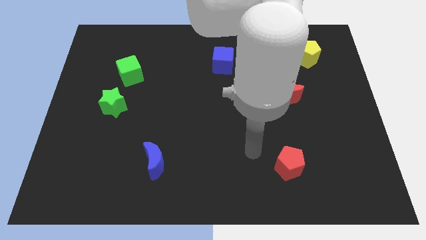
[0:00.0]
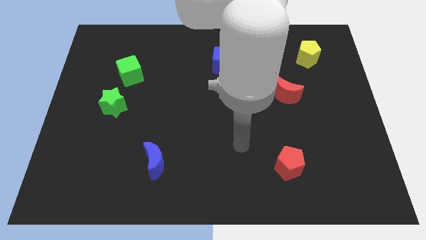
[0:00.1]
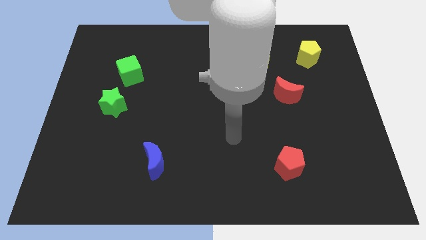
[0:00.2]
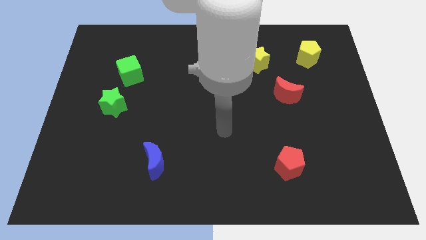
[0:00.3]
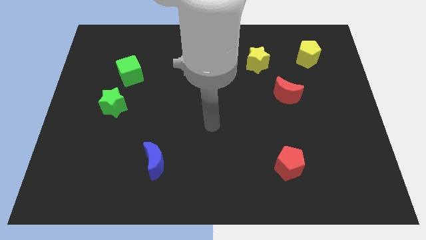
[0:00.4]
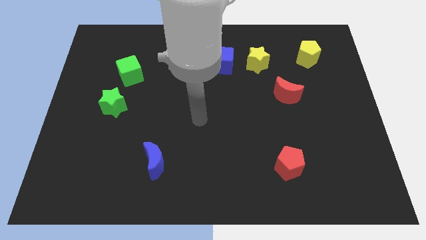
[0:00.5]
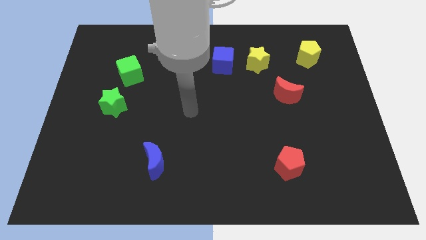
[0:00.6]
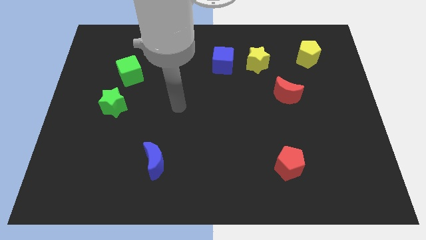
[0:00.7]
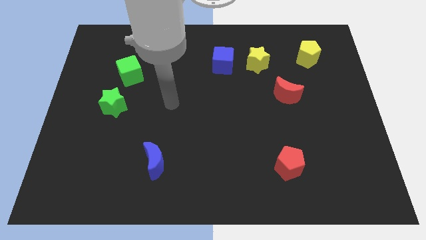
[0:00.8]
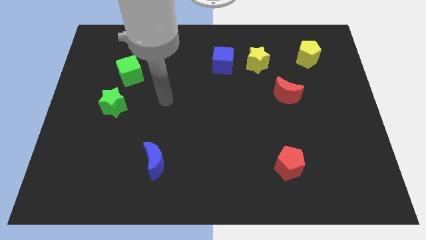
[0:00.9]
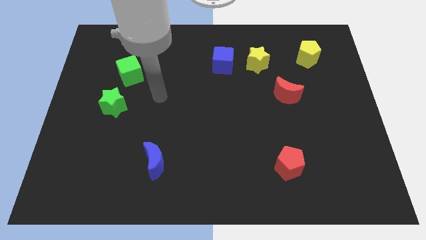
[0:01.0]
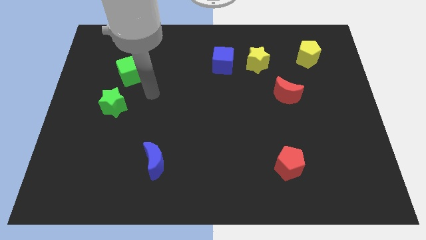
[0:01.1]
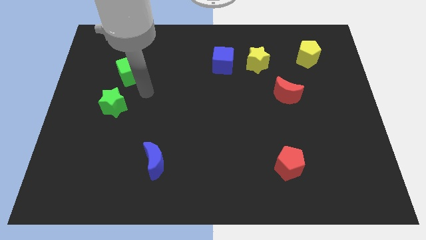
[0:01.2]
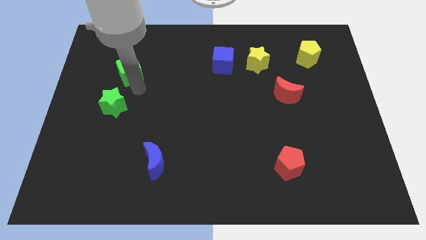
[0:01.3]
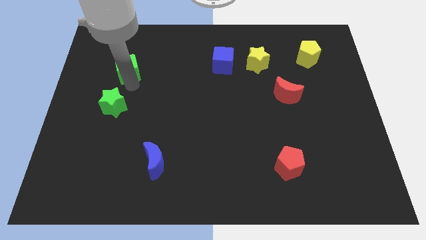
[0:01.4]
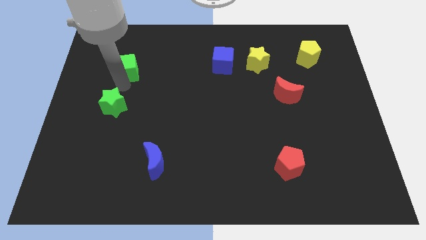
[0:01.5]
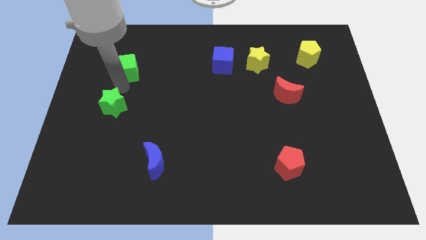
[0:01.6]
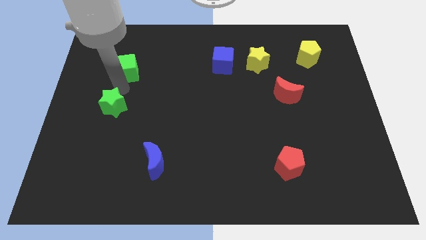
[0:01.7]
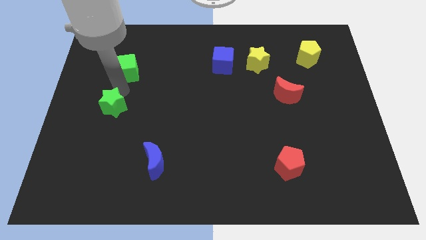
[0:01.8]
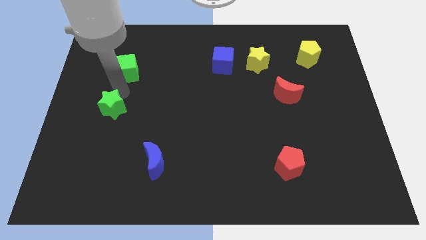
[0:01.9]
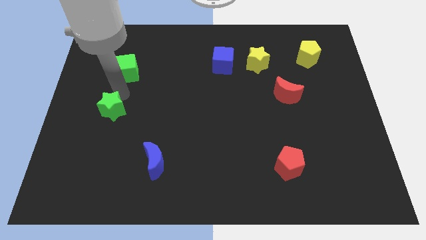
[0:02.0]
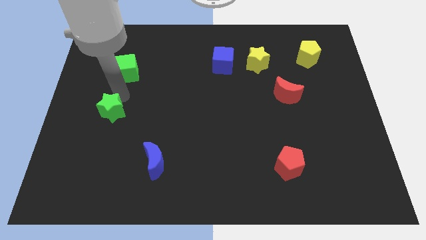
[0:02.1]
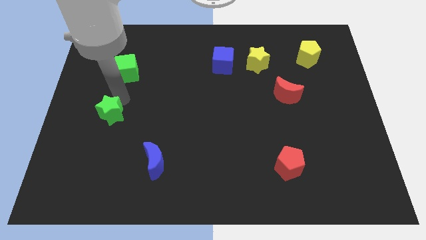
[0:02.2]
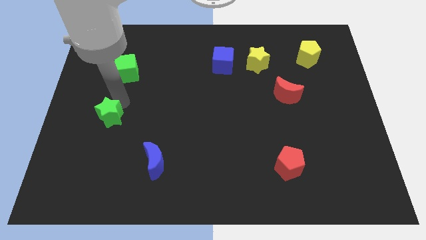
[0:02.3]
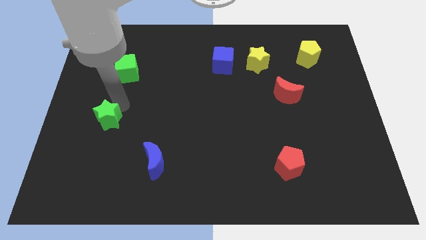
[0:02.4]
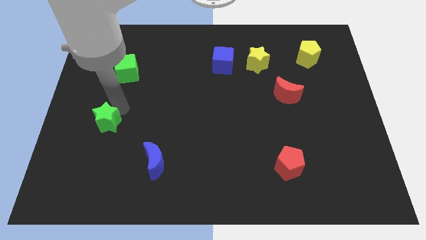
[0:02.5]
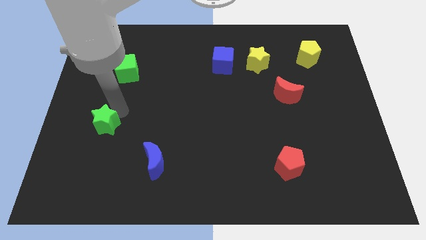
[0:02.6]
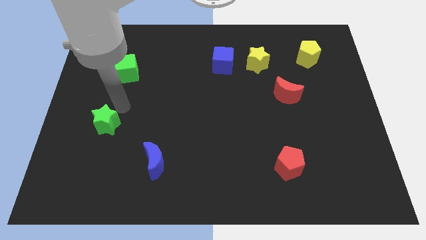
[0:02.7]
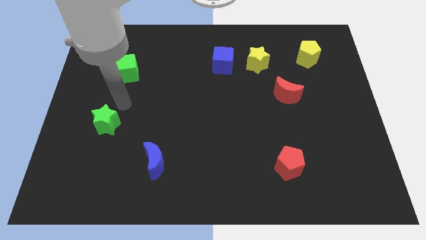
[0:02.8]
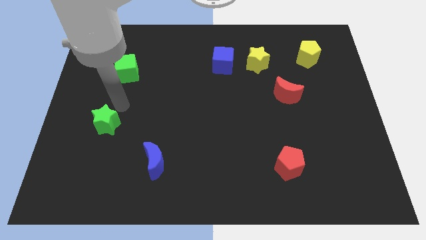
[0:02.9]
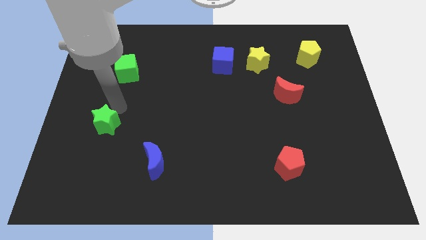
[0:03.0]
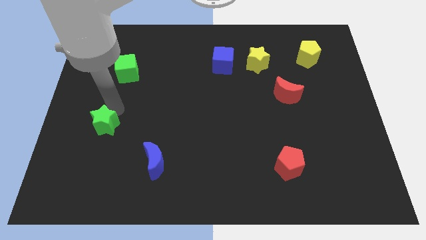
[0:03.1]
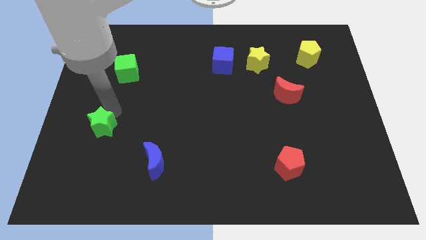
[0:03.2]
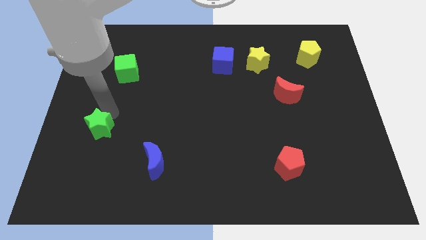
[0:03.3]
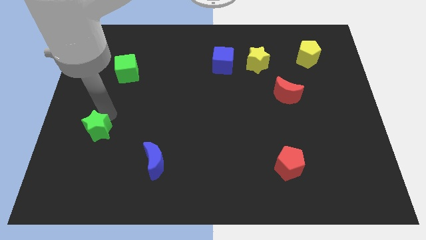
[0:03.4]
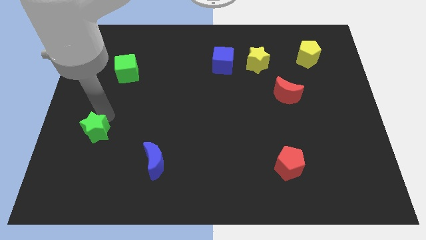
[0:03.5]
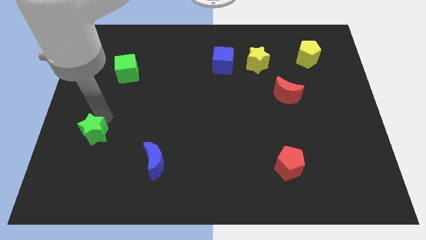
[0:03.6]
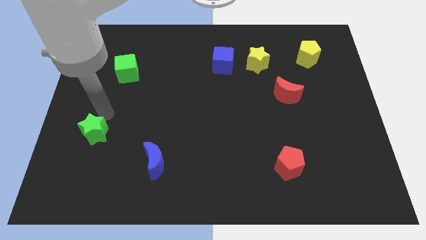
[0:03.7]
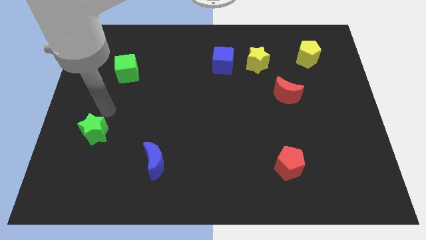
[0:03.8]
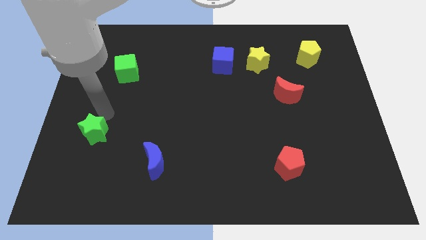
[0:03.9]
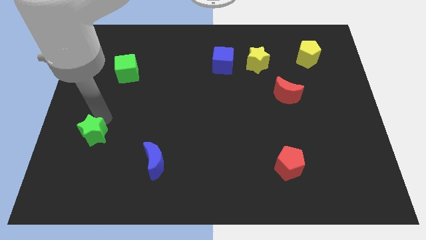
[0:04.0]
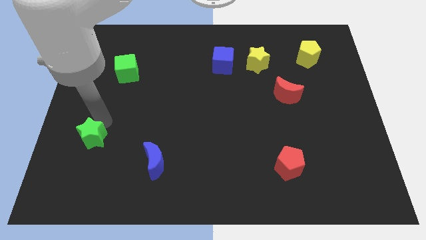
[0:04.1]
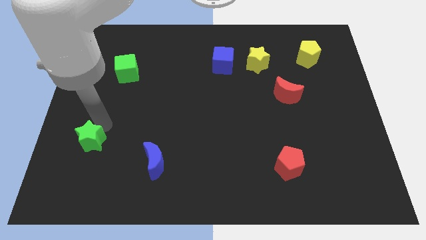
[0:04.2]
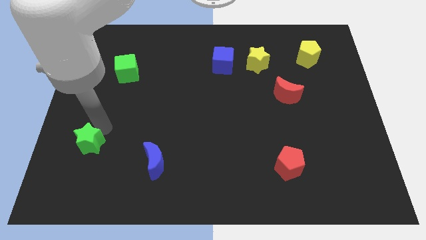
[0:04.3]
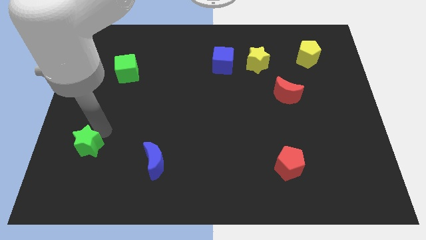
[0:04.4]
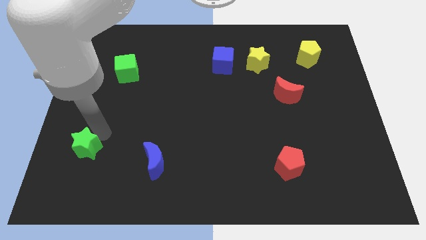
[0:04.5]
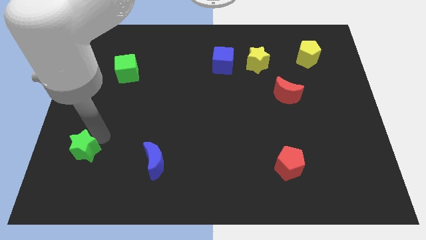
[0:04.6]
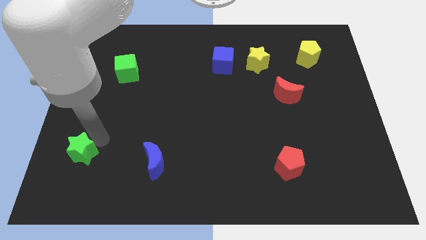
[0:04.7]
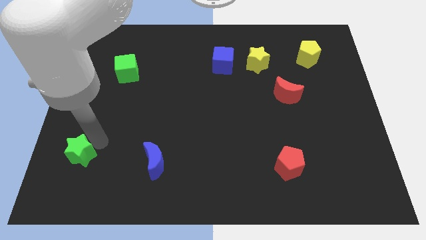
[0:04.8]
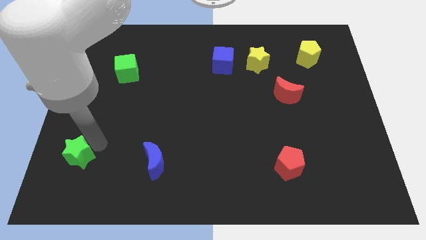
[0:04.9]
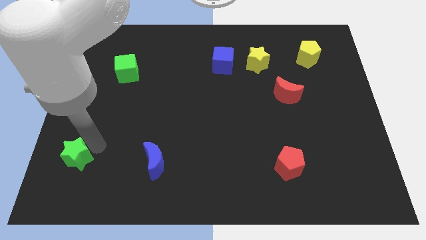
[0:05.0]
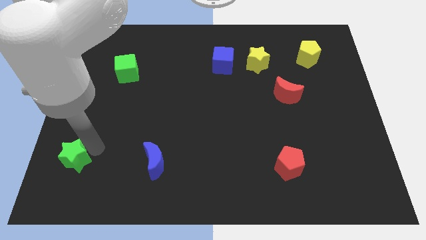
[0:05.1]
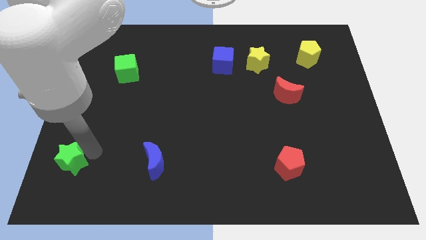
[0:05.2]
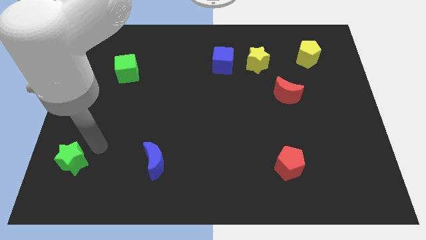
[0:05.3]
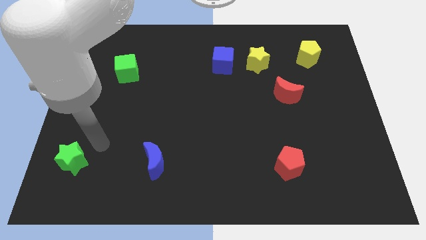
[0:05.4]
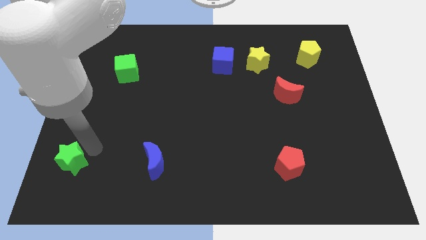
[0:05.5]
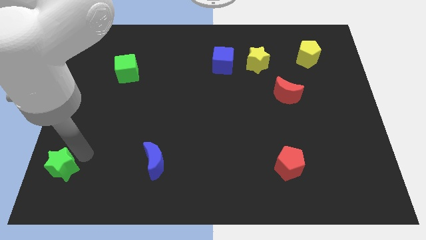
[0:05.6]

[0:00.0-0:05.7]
put the green star to the bottom left

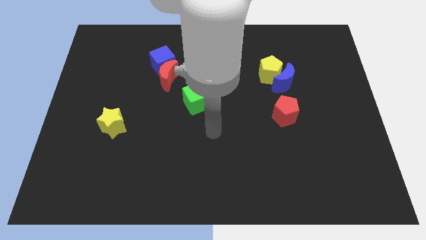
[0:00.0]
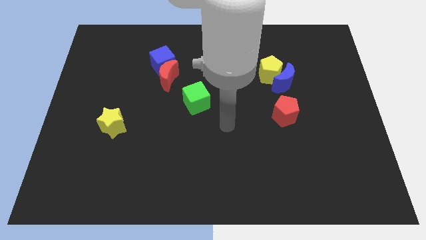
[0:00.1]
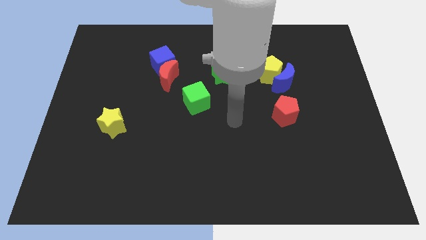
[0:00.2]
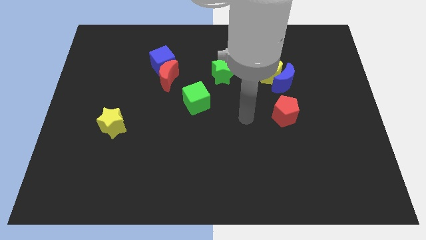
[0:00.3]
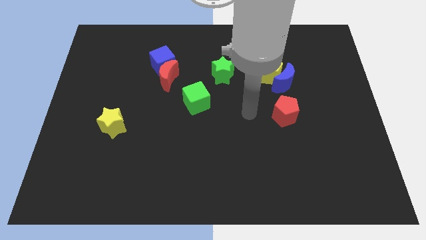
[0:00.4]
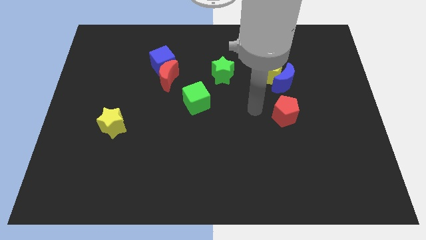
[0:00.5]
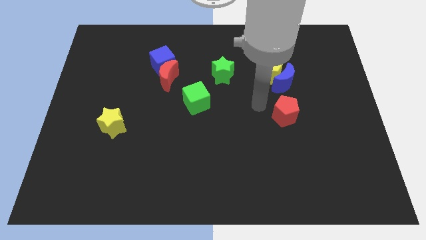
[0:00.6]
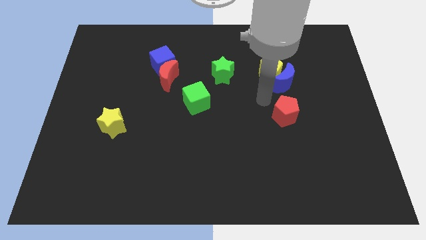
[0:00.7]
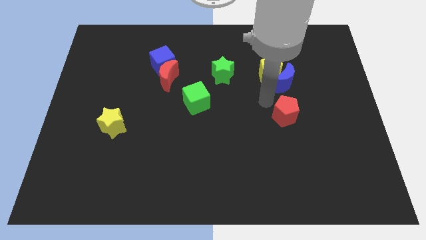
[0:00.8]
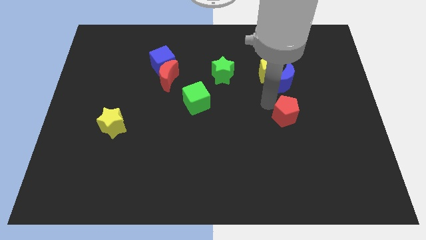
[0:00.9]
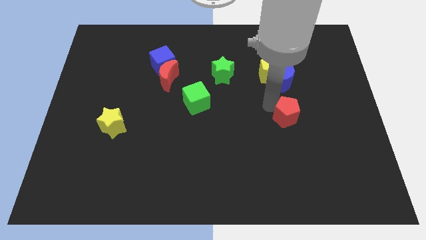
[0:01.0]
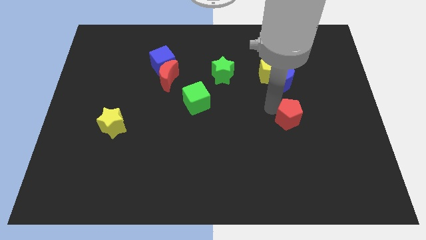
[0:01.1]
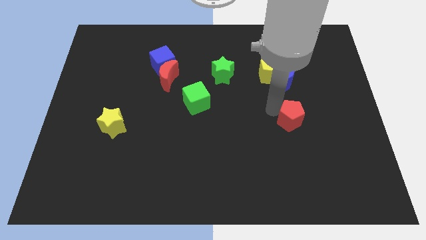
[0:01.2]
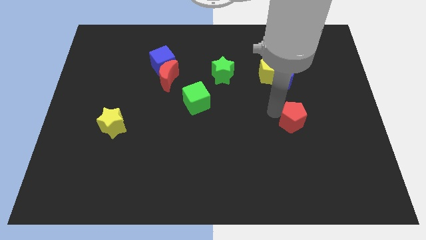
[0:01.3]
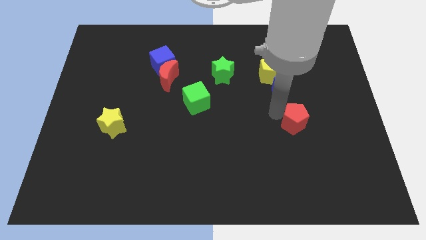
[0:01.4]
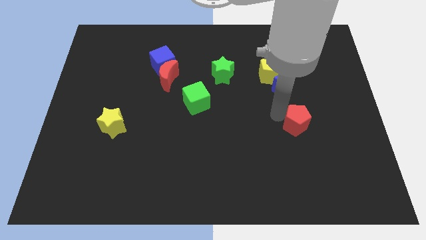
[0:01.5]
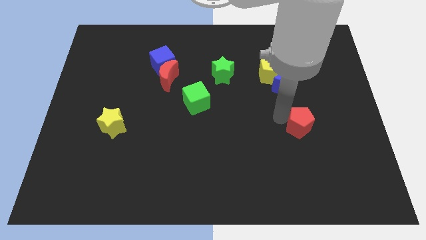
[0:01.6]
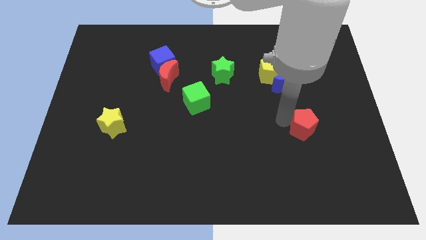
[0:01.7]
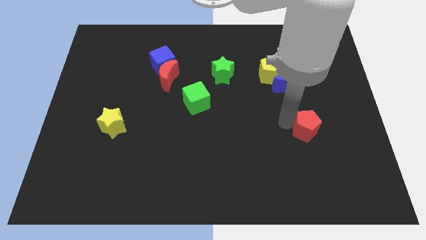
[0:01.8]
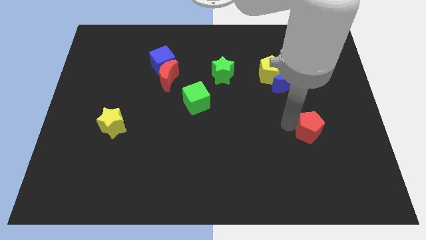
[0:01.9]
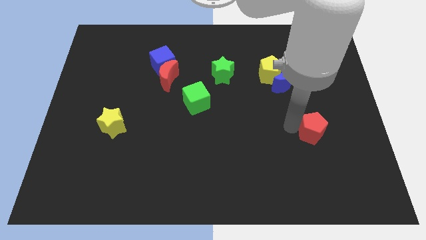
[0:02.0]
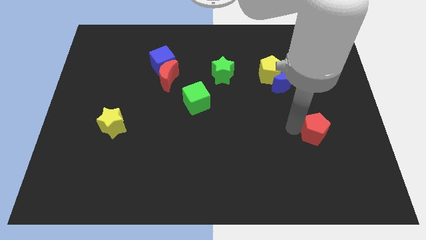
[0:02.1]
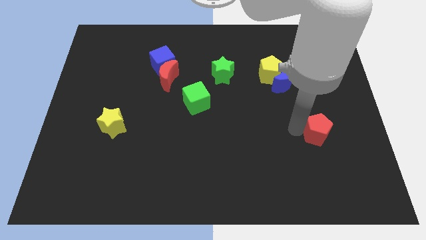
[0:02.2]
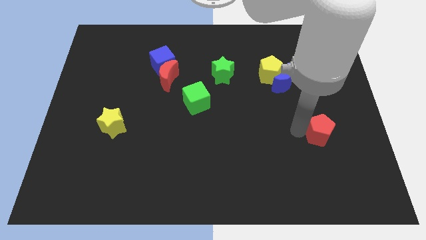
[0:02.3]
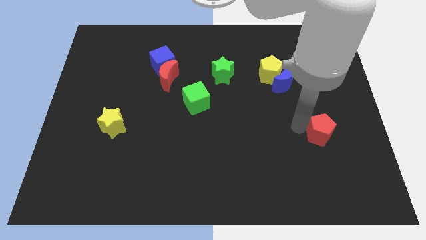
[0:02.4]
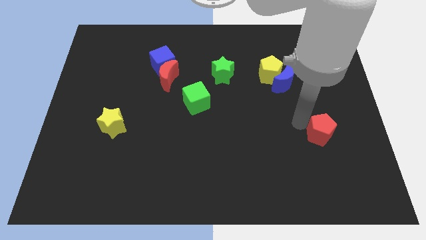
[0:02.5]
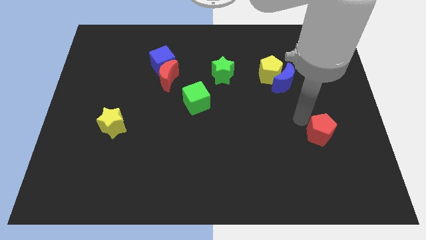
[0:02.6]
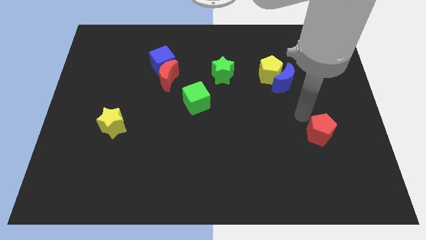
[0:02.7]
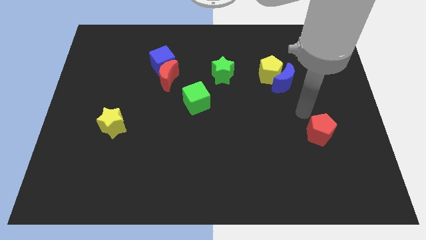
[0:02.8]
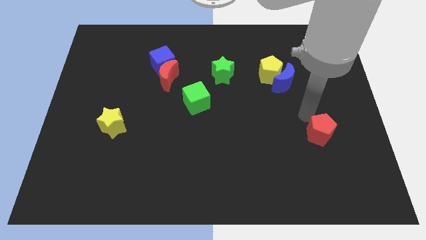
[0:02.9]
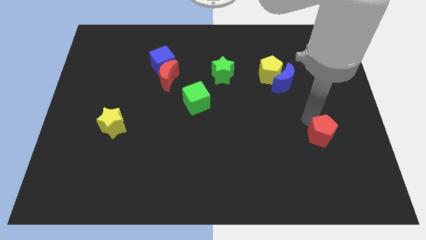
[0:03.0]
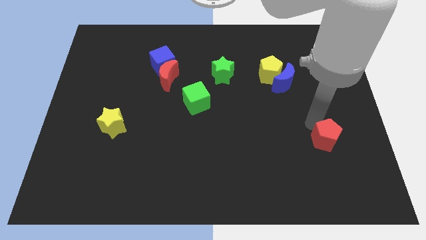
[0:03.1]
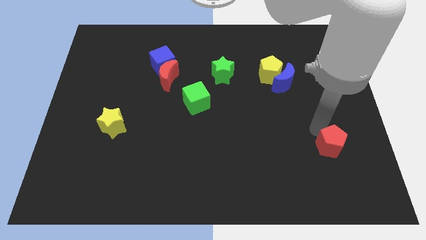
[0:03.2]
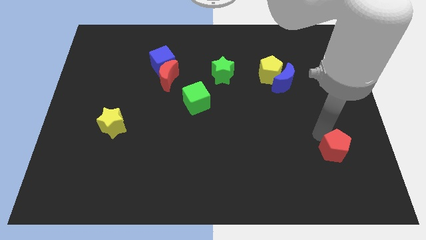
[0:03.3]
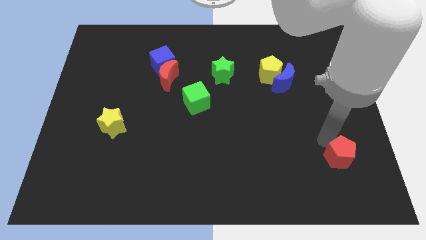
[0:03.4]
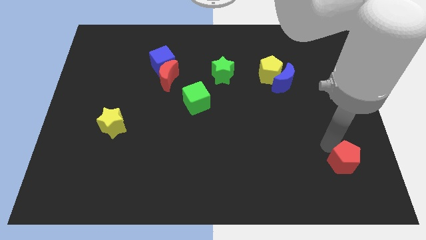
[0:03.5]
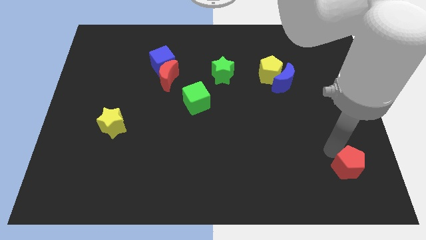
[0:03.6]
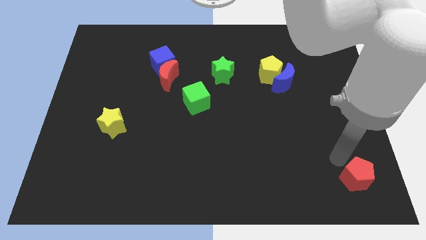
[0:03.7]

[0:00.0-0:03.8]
move the red pentagon to the lower right corner
